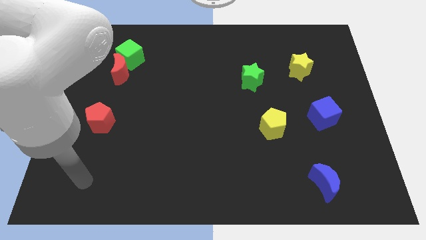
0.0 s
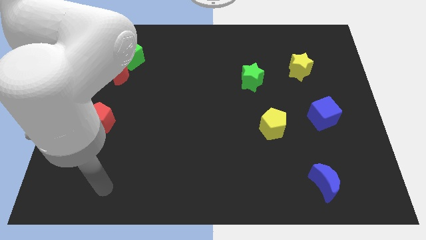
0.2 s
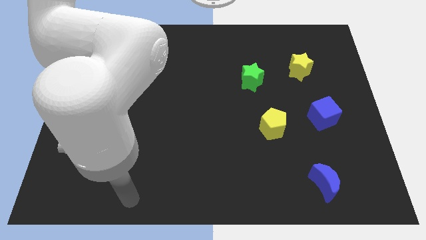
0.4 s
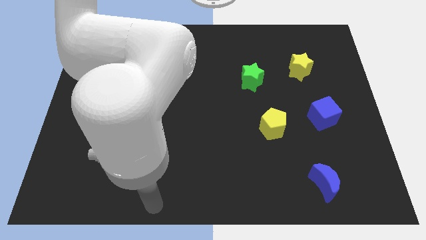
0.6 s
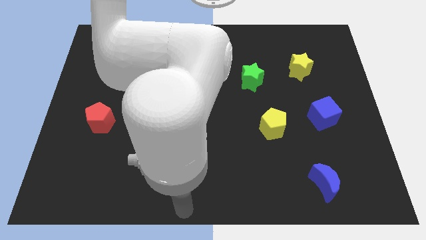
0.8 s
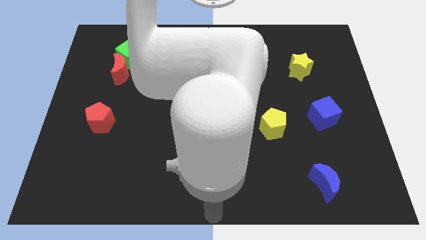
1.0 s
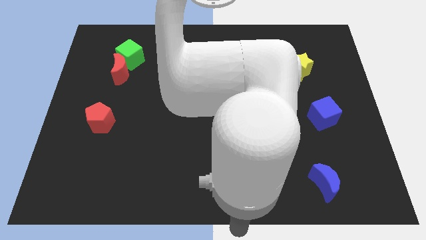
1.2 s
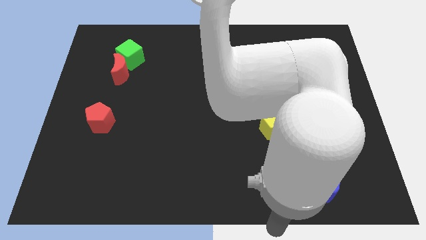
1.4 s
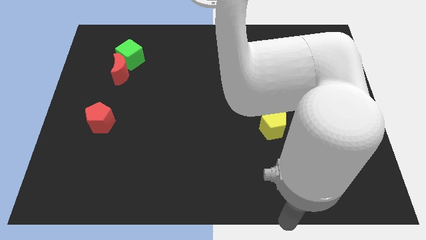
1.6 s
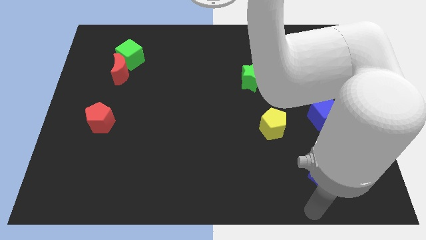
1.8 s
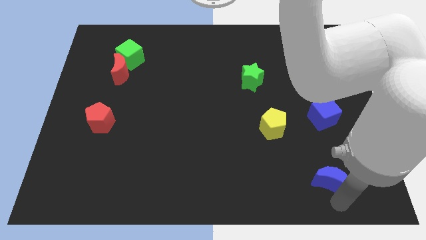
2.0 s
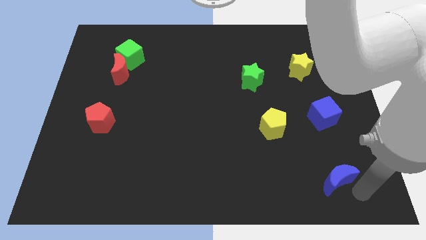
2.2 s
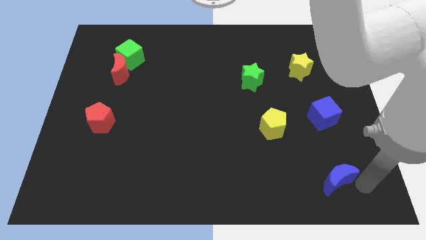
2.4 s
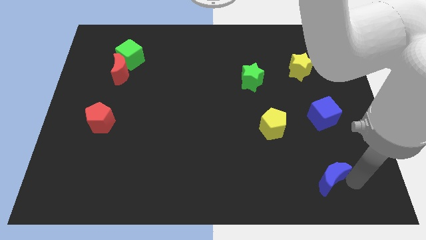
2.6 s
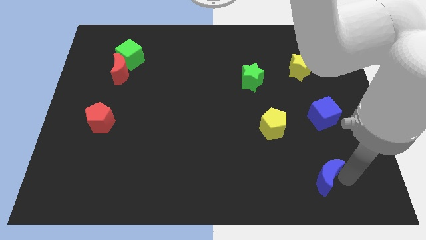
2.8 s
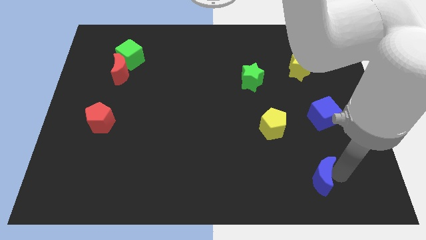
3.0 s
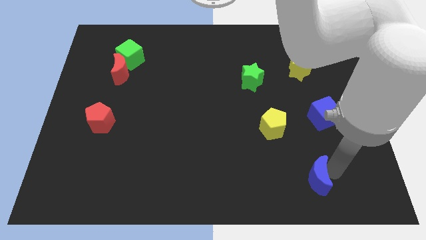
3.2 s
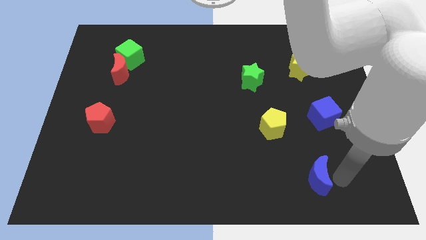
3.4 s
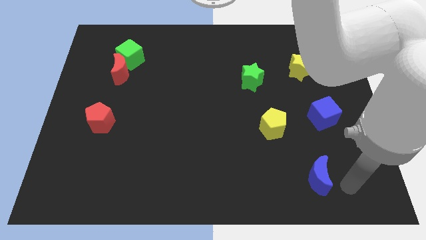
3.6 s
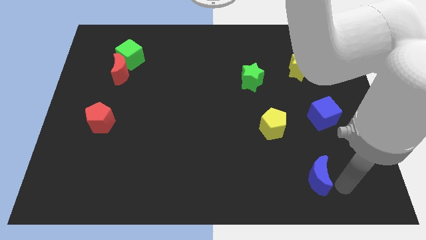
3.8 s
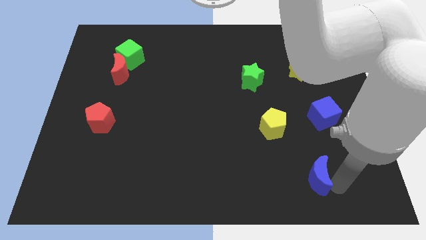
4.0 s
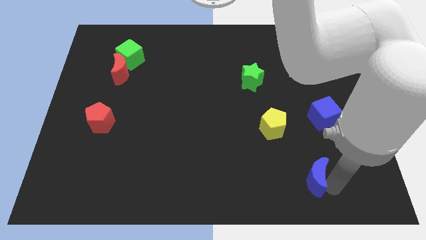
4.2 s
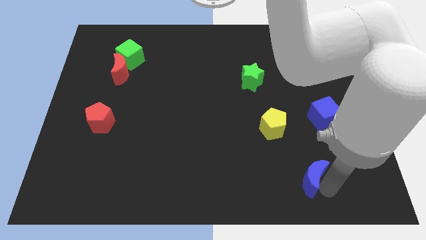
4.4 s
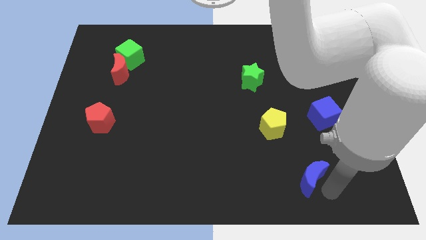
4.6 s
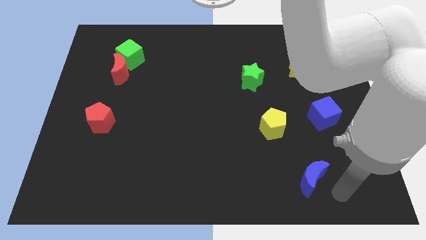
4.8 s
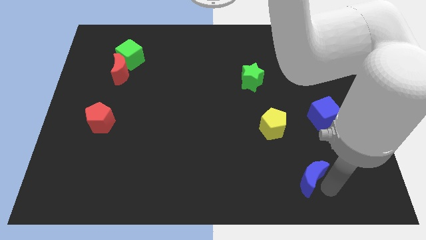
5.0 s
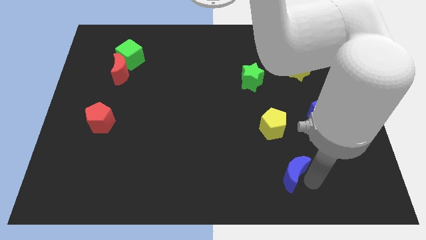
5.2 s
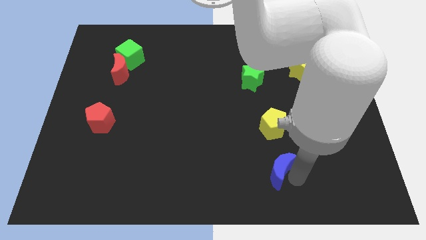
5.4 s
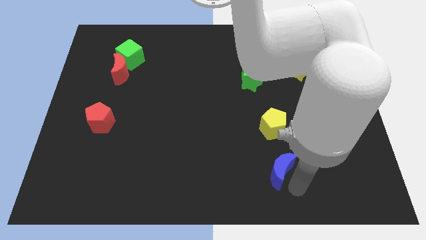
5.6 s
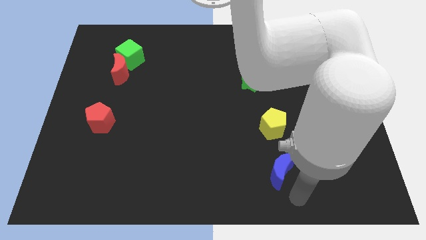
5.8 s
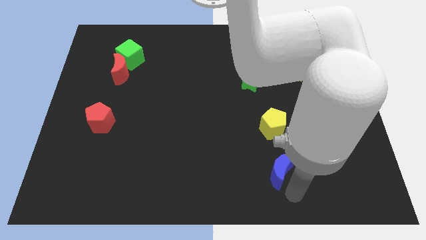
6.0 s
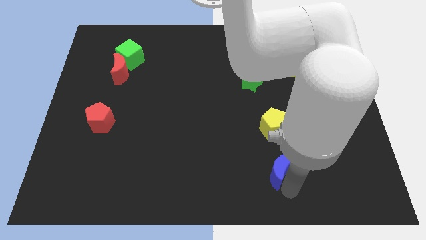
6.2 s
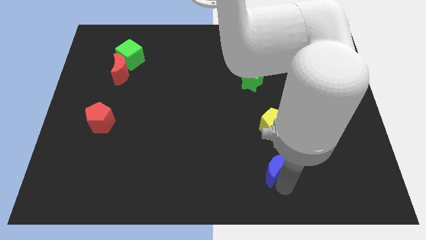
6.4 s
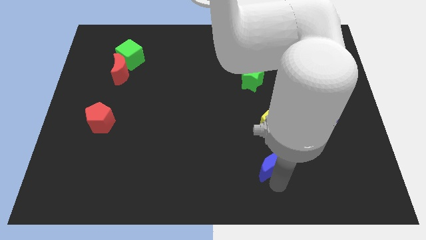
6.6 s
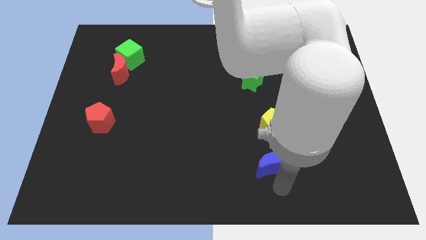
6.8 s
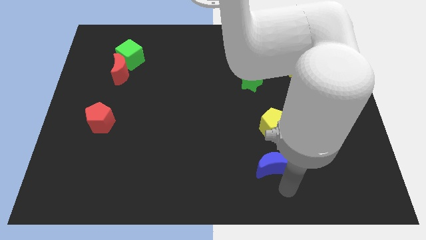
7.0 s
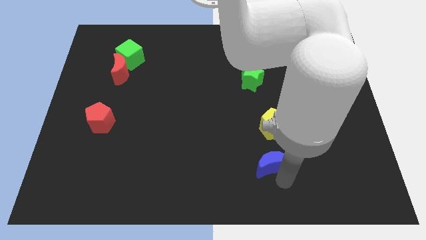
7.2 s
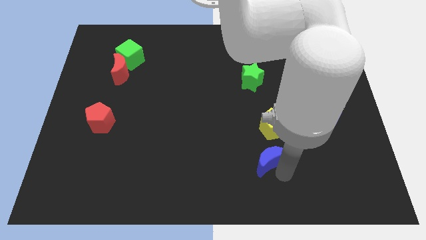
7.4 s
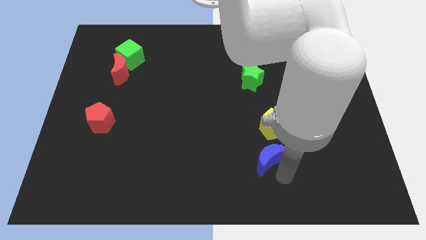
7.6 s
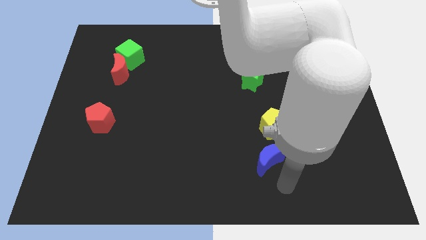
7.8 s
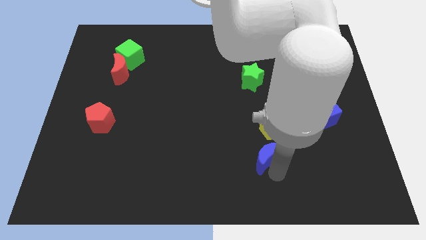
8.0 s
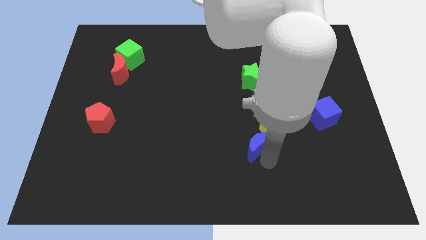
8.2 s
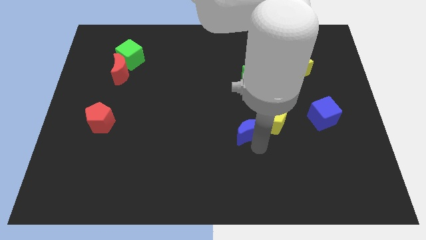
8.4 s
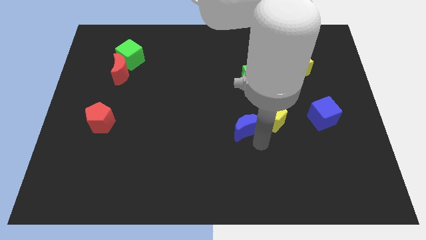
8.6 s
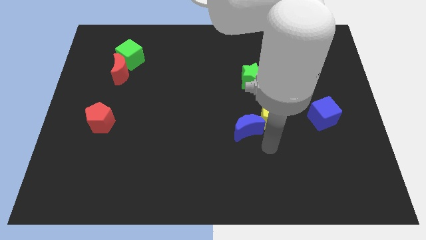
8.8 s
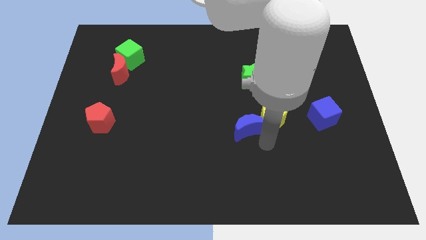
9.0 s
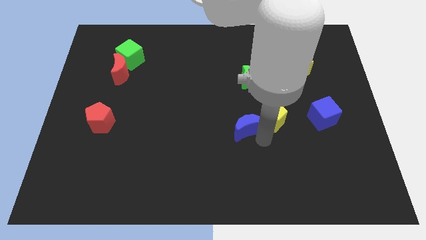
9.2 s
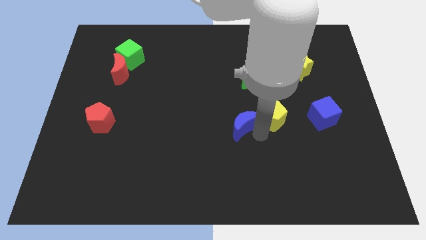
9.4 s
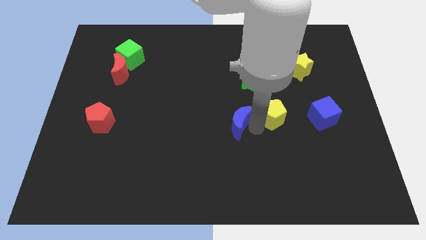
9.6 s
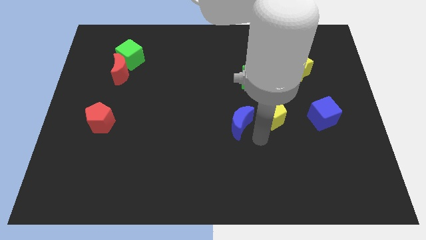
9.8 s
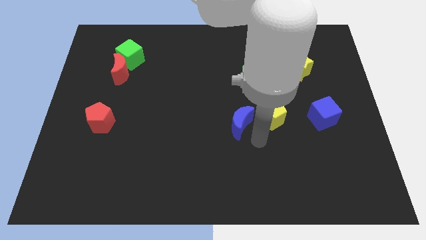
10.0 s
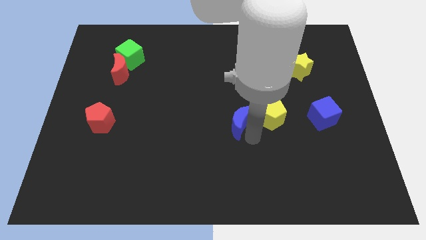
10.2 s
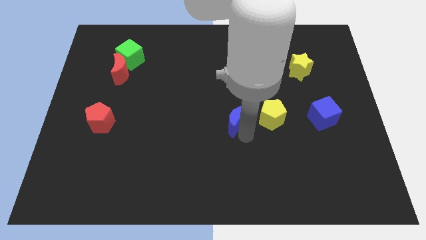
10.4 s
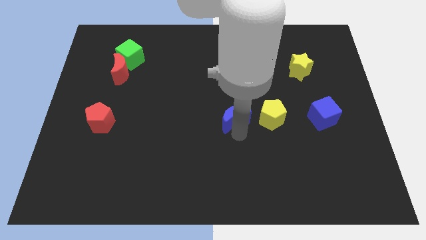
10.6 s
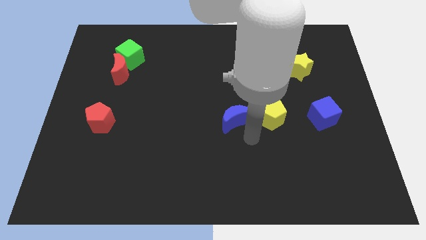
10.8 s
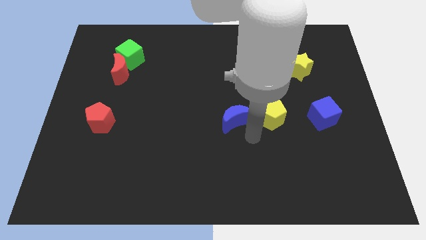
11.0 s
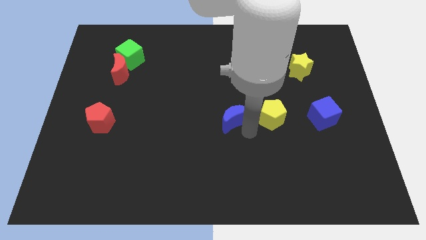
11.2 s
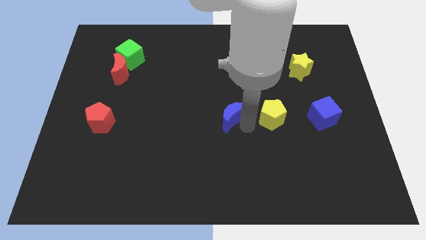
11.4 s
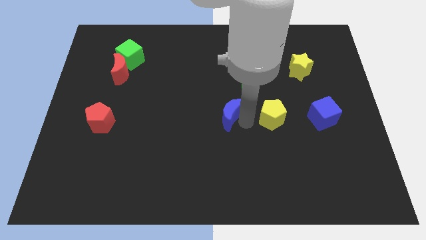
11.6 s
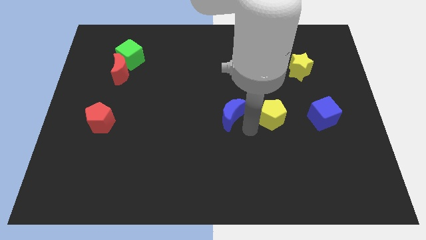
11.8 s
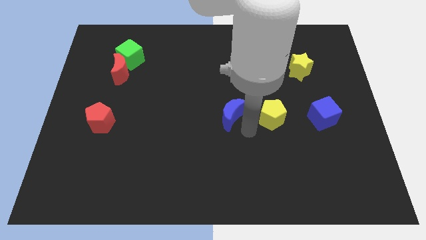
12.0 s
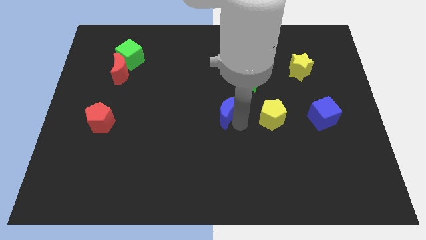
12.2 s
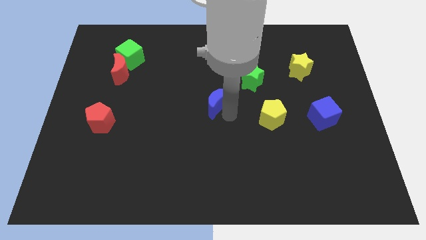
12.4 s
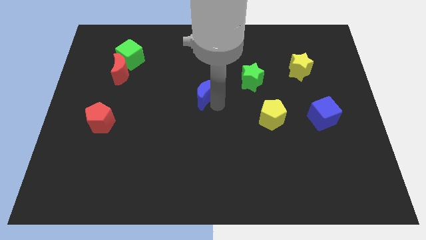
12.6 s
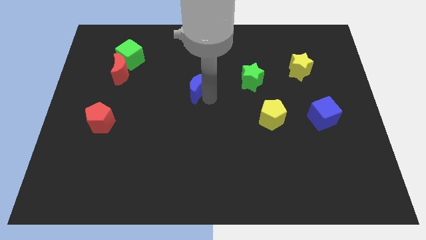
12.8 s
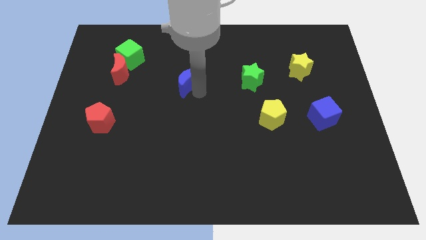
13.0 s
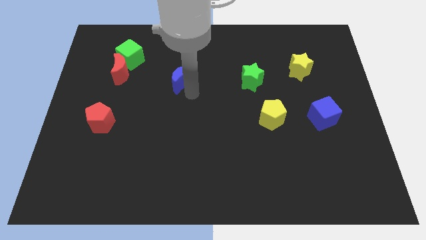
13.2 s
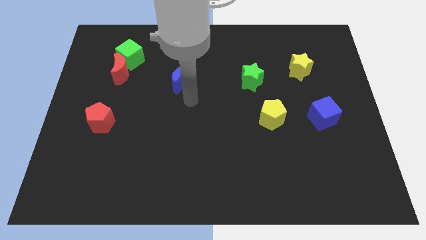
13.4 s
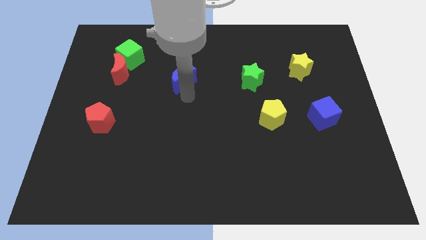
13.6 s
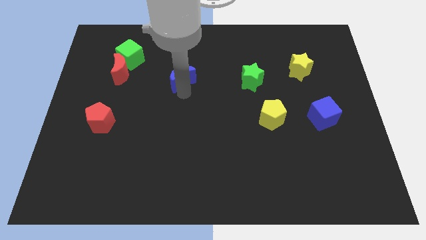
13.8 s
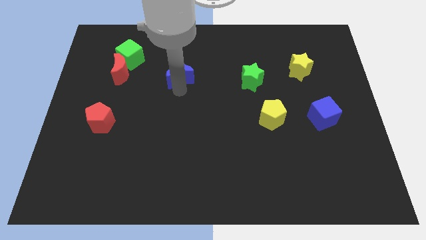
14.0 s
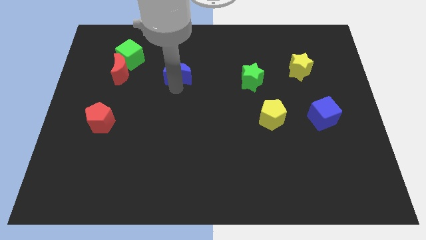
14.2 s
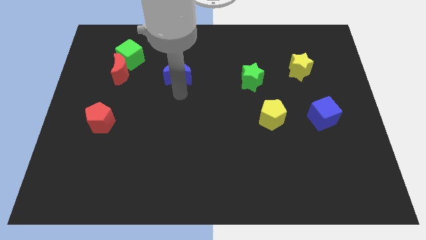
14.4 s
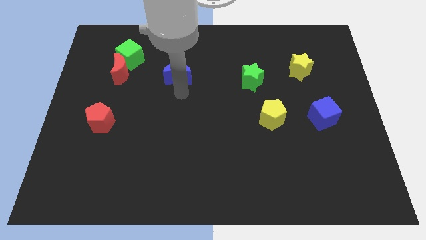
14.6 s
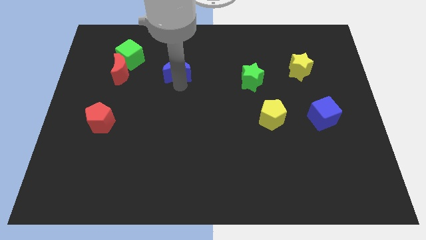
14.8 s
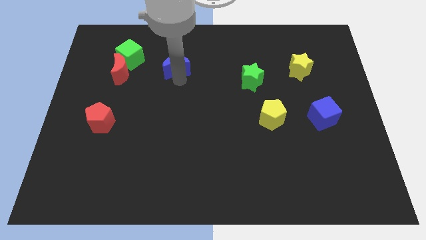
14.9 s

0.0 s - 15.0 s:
slide the blue moon just right of the green cube
